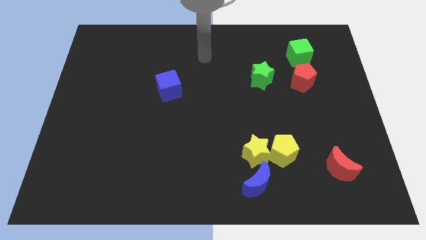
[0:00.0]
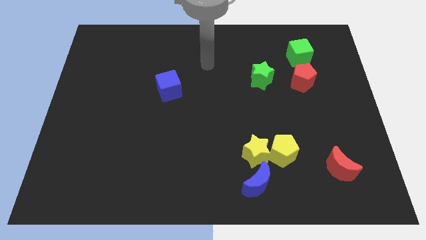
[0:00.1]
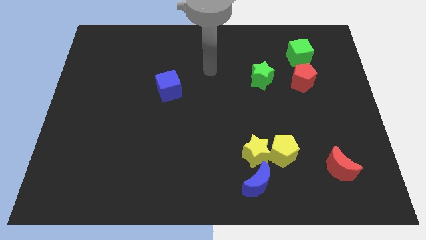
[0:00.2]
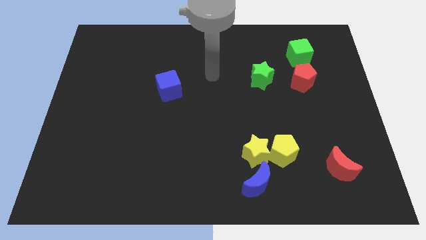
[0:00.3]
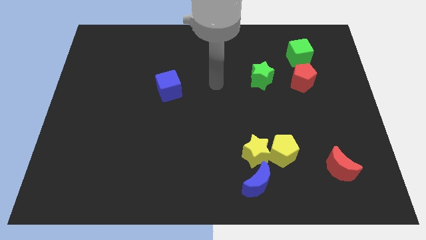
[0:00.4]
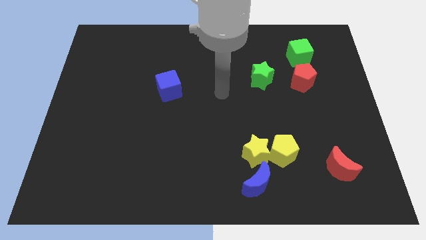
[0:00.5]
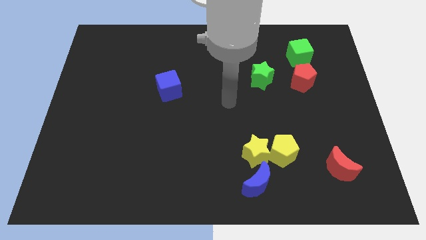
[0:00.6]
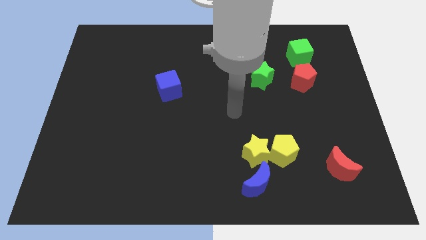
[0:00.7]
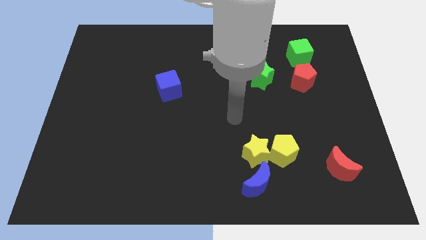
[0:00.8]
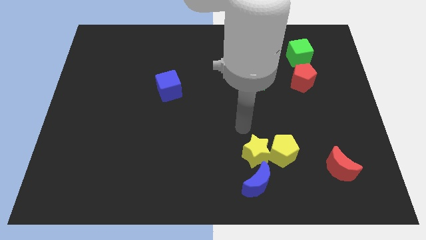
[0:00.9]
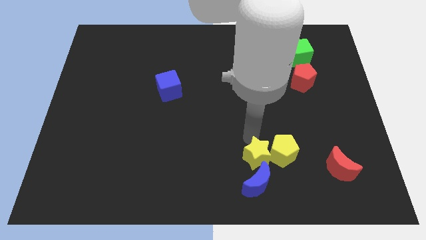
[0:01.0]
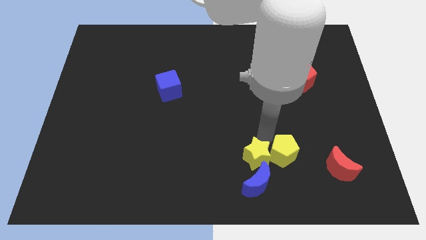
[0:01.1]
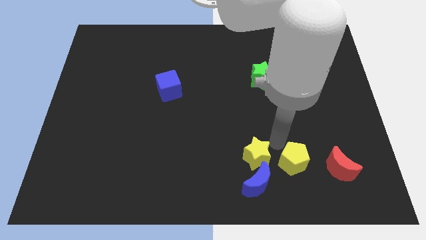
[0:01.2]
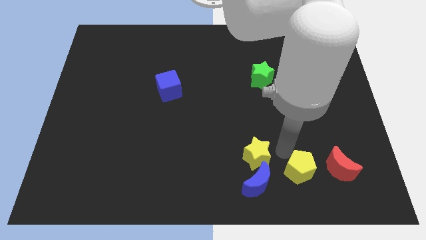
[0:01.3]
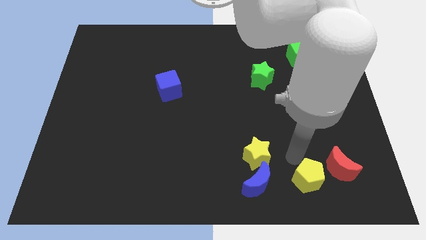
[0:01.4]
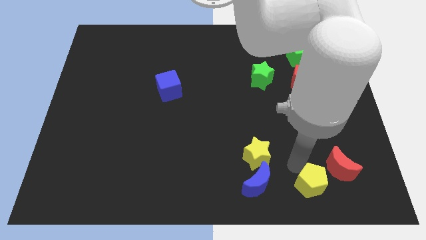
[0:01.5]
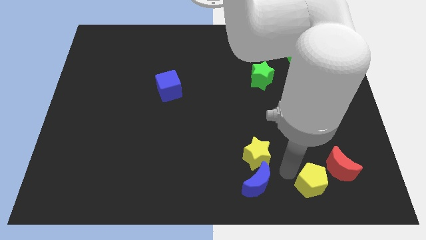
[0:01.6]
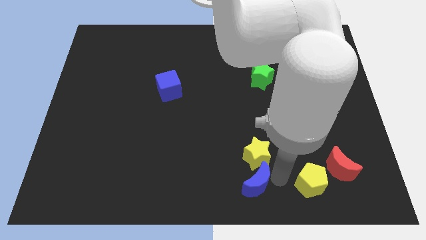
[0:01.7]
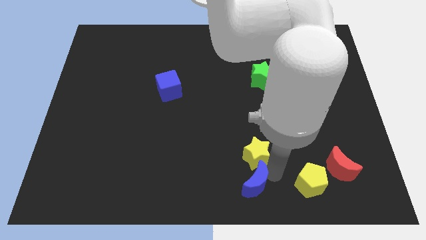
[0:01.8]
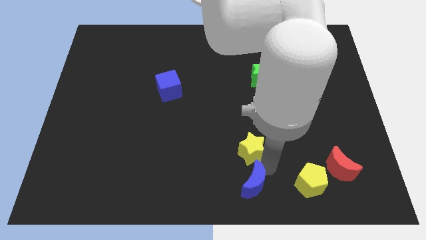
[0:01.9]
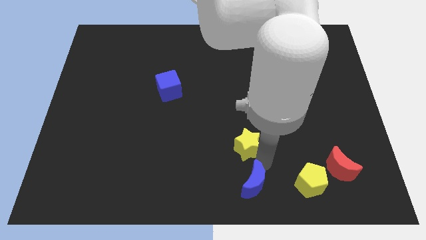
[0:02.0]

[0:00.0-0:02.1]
move the yellow star away from the yellow pentagon and blue moon

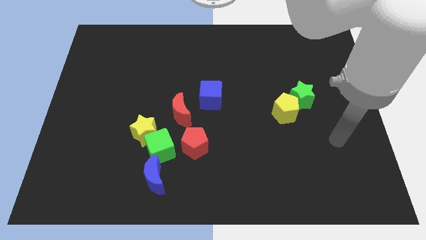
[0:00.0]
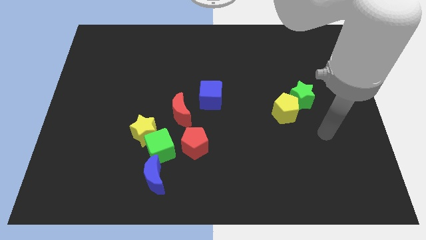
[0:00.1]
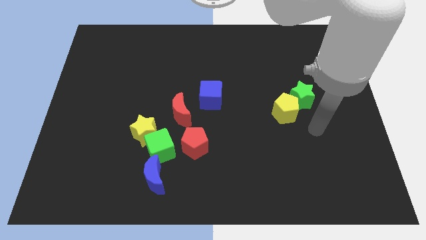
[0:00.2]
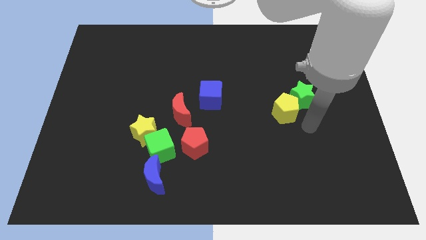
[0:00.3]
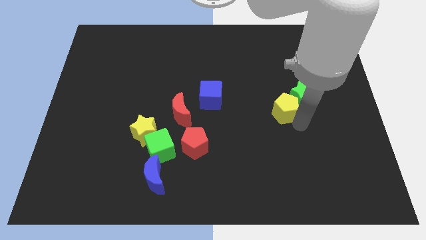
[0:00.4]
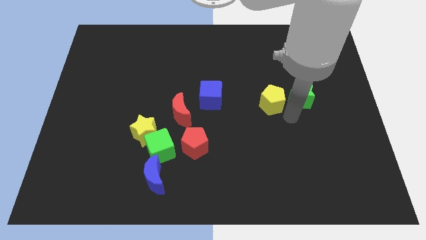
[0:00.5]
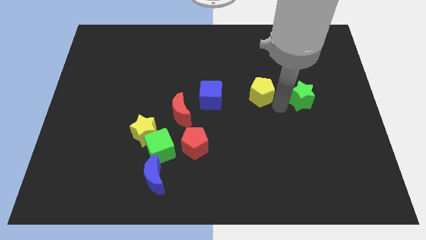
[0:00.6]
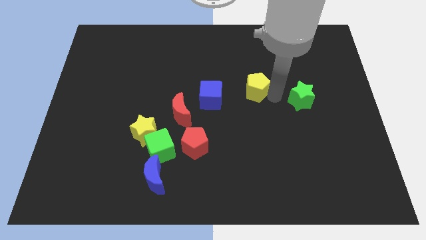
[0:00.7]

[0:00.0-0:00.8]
move the green star away from the yellow pentagon

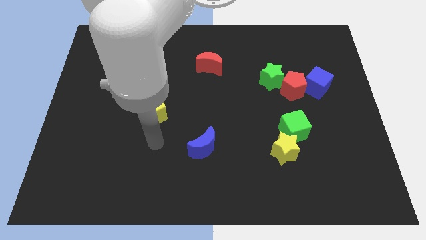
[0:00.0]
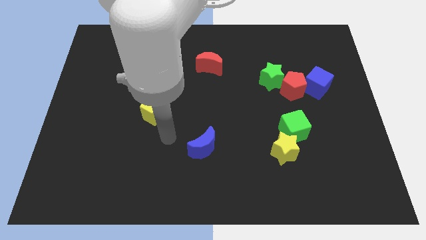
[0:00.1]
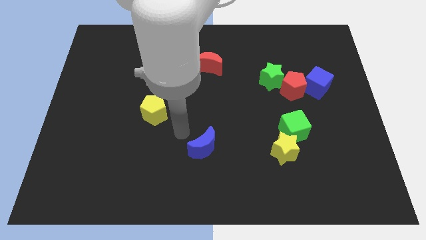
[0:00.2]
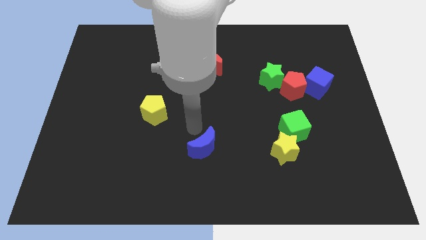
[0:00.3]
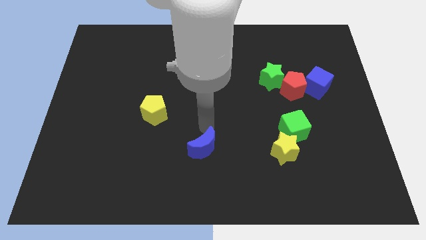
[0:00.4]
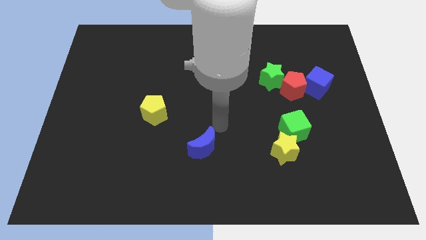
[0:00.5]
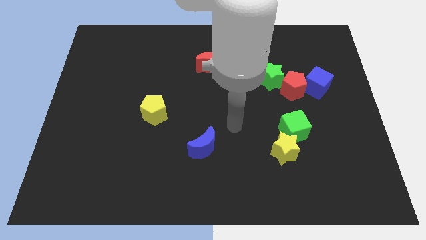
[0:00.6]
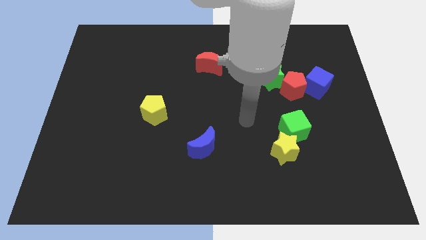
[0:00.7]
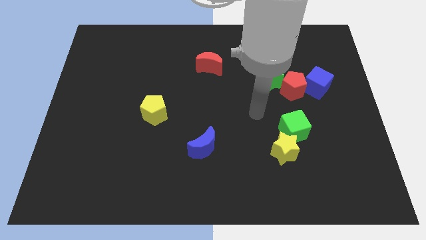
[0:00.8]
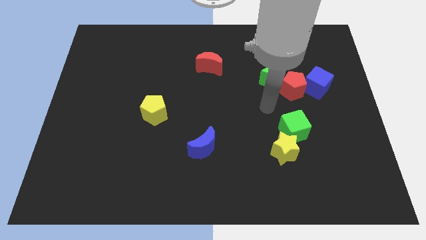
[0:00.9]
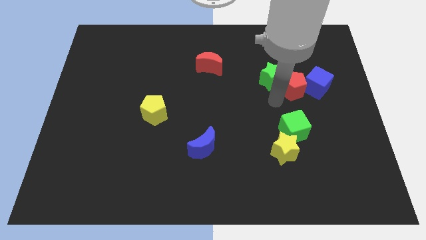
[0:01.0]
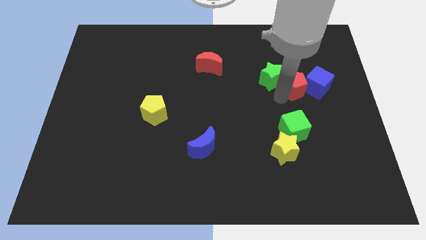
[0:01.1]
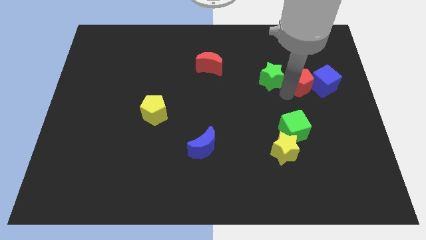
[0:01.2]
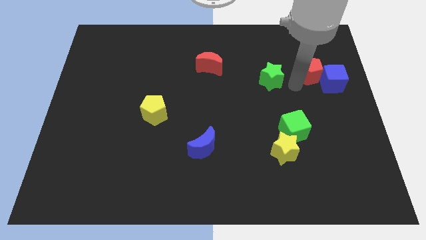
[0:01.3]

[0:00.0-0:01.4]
separate the green star from the red pentagon

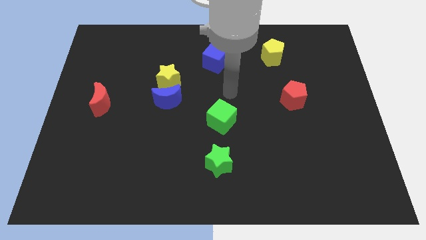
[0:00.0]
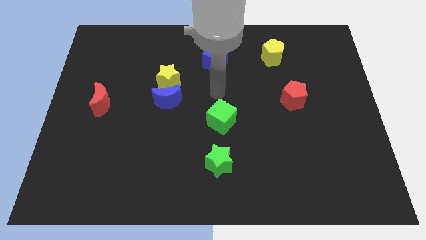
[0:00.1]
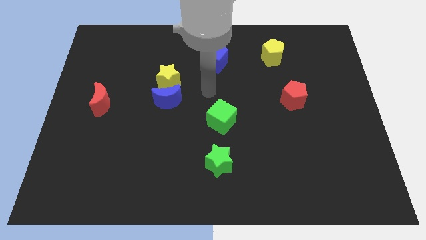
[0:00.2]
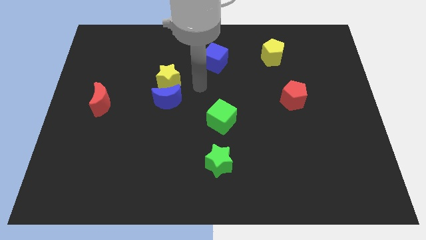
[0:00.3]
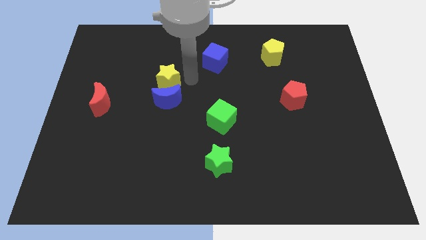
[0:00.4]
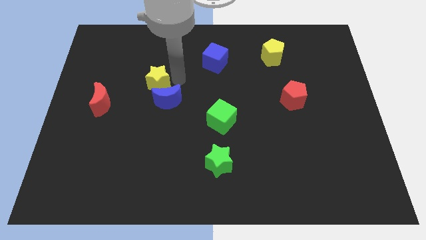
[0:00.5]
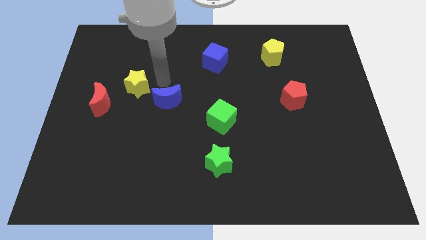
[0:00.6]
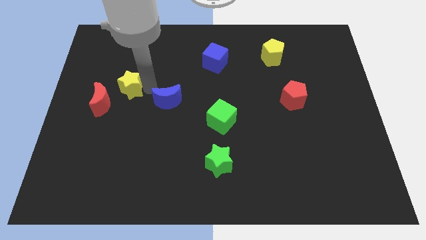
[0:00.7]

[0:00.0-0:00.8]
separate the blue moon from the yellow star

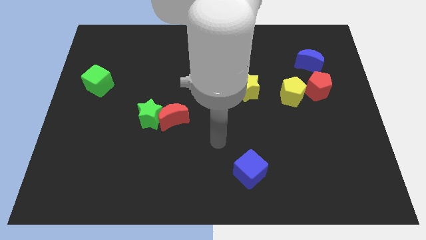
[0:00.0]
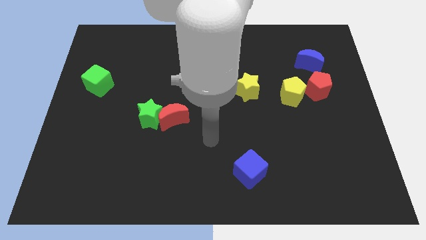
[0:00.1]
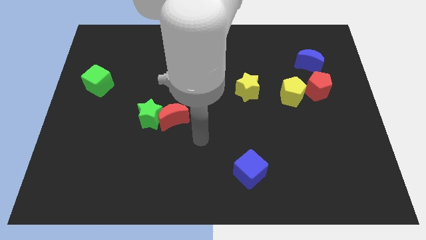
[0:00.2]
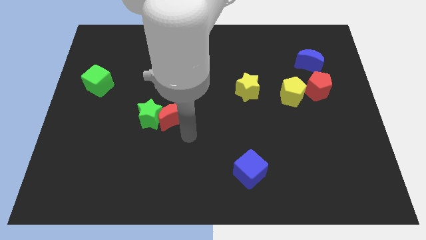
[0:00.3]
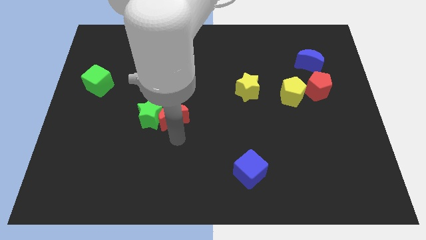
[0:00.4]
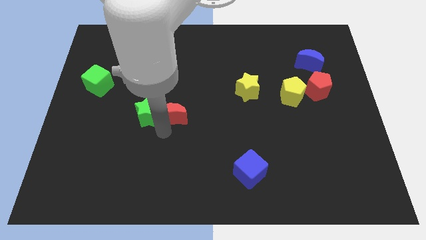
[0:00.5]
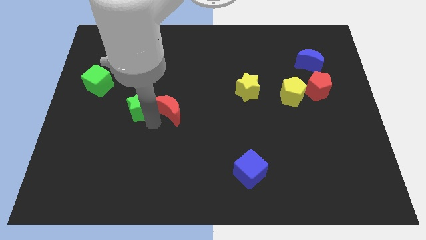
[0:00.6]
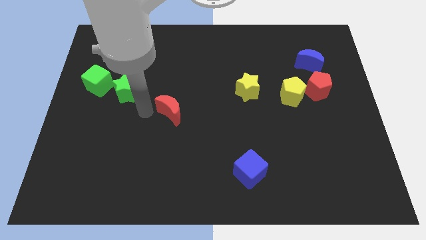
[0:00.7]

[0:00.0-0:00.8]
pull the red moon apart from the green star

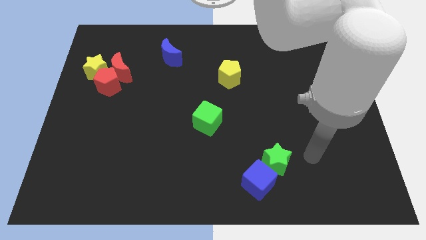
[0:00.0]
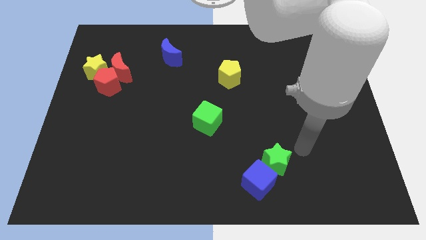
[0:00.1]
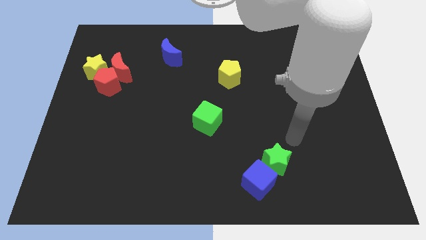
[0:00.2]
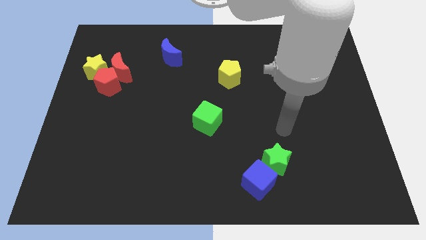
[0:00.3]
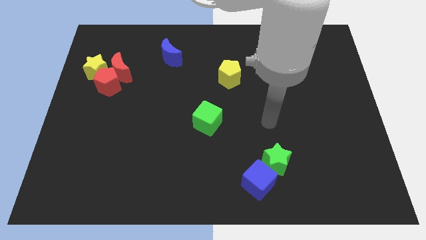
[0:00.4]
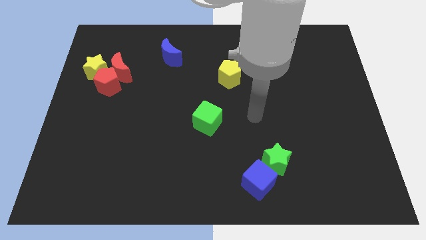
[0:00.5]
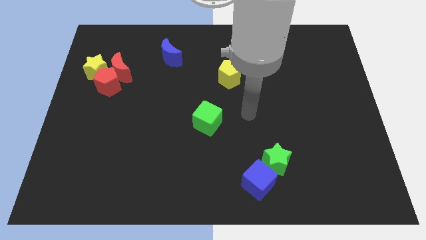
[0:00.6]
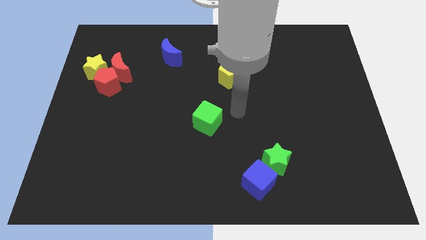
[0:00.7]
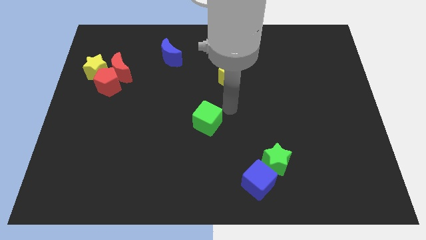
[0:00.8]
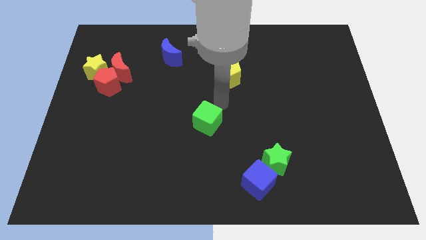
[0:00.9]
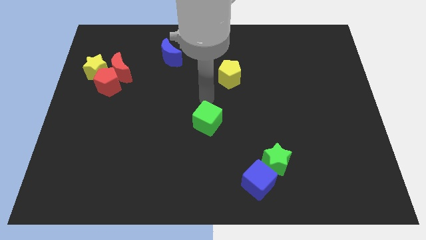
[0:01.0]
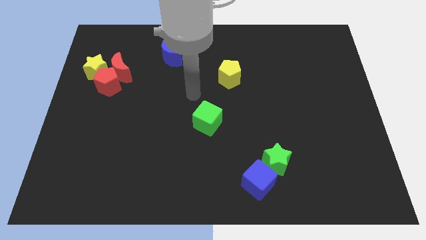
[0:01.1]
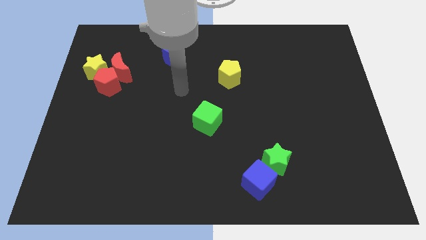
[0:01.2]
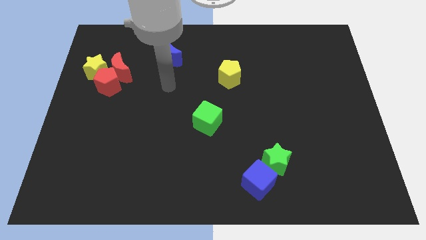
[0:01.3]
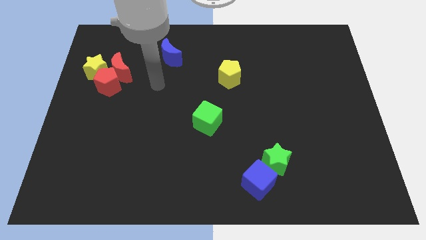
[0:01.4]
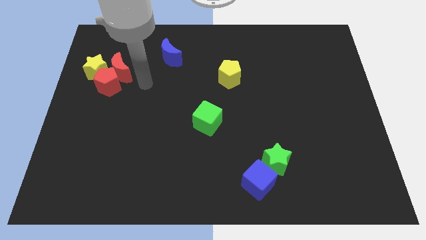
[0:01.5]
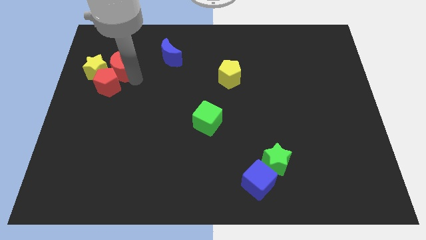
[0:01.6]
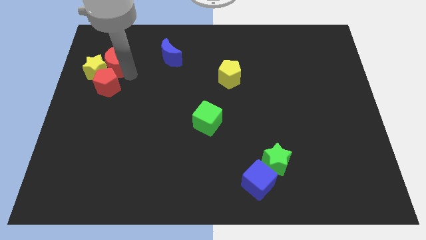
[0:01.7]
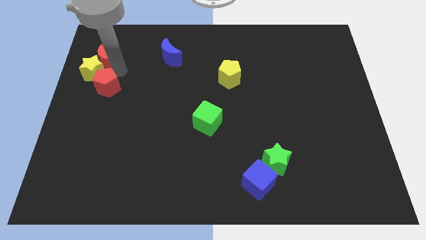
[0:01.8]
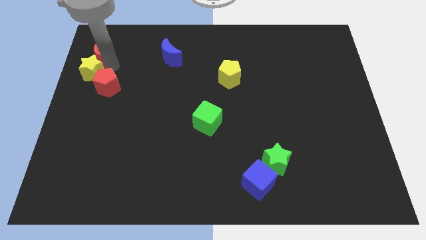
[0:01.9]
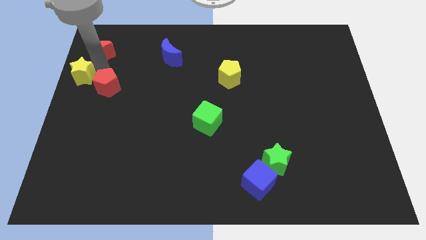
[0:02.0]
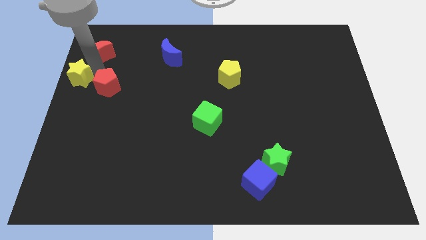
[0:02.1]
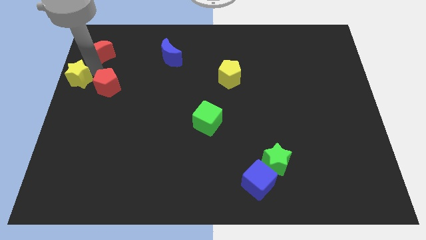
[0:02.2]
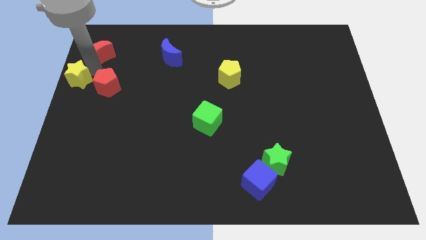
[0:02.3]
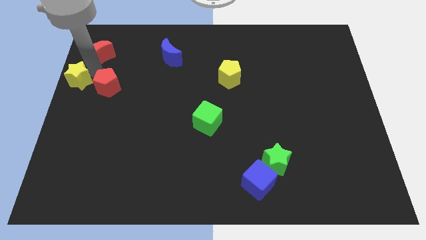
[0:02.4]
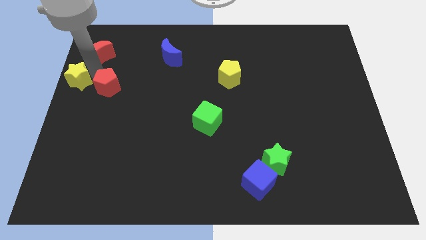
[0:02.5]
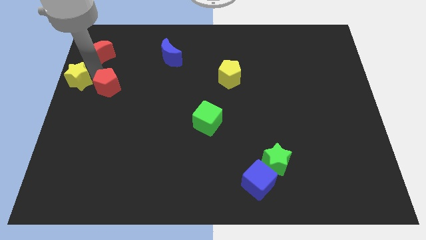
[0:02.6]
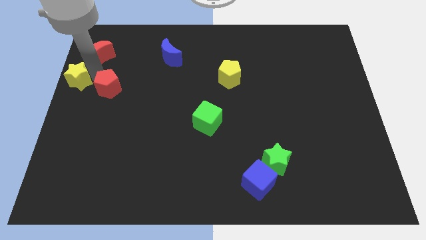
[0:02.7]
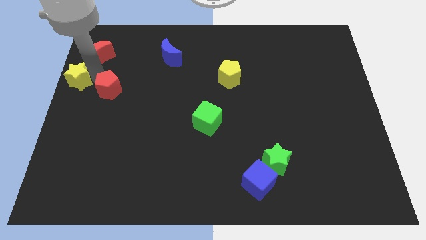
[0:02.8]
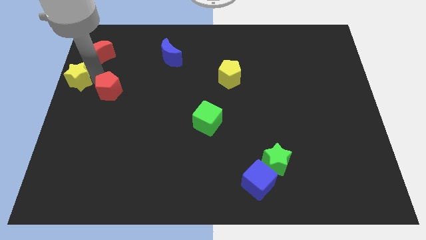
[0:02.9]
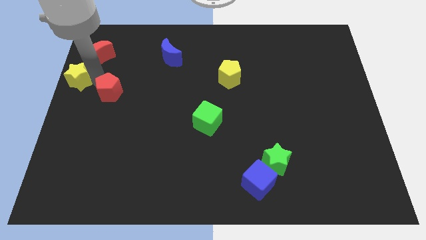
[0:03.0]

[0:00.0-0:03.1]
separate the red pentagon from the red moon and yellow star
